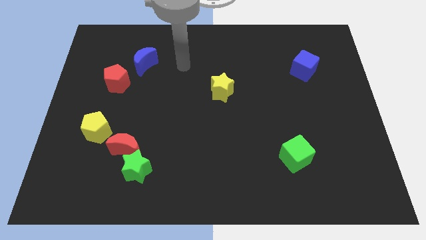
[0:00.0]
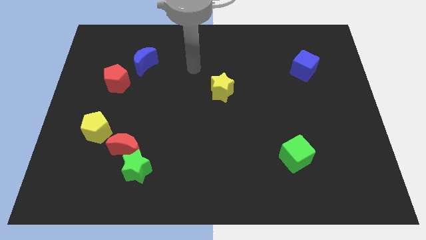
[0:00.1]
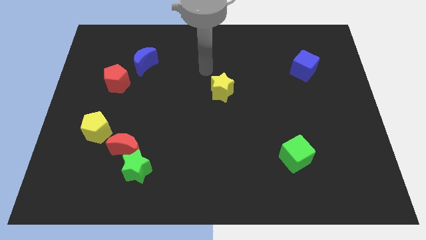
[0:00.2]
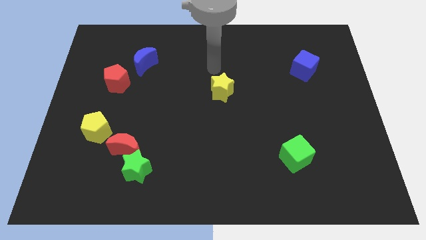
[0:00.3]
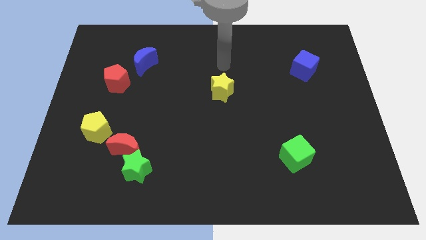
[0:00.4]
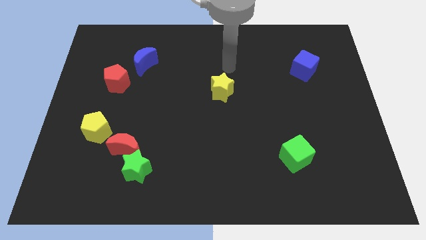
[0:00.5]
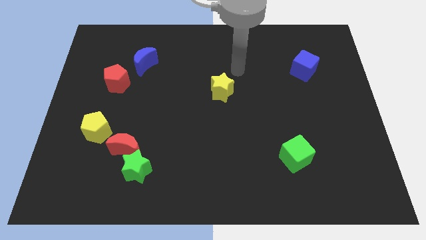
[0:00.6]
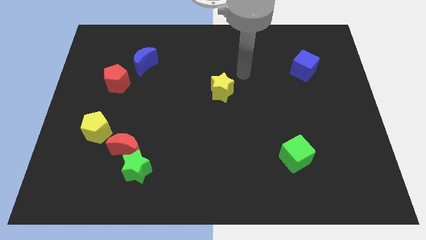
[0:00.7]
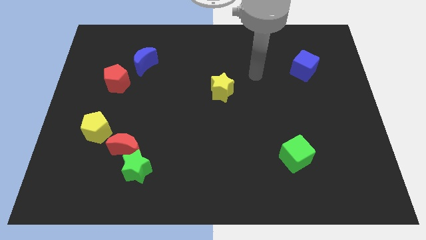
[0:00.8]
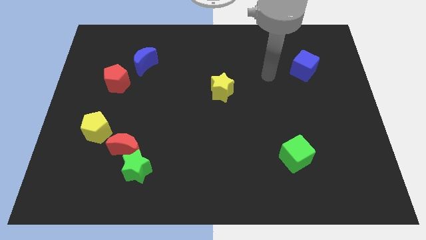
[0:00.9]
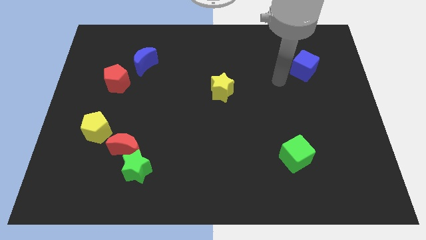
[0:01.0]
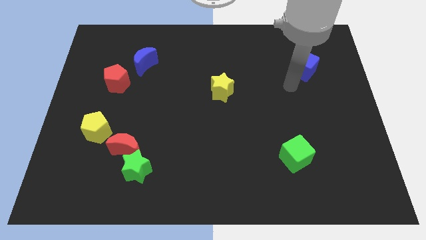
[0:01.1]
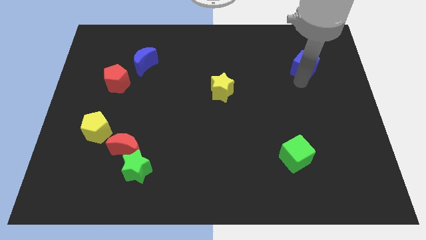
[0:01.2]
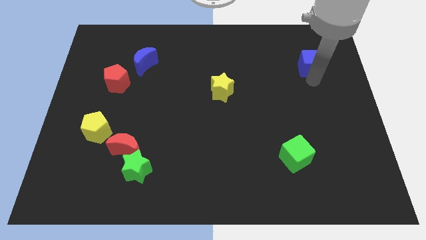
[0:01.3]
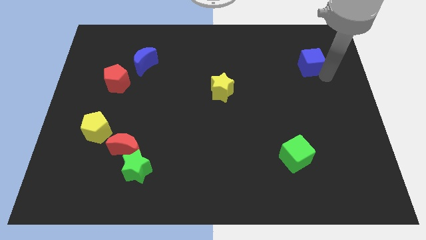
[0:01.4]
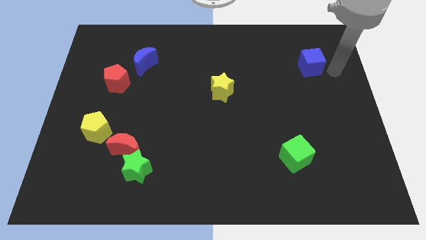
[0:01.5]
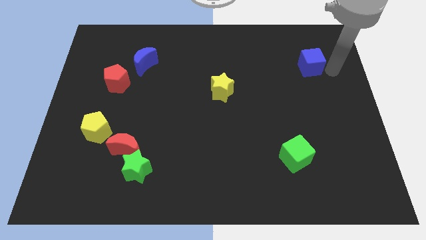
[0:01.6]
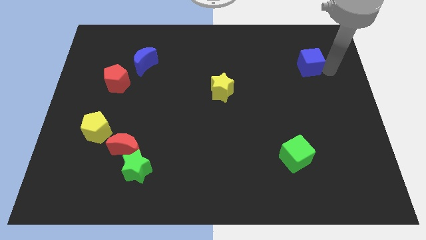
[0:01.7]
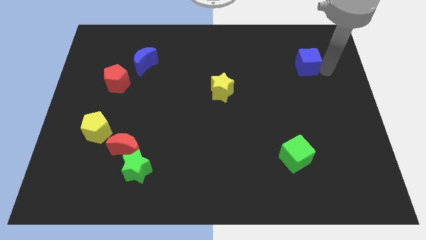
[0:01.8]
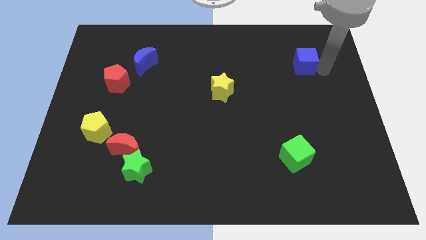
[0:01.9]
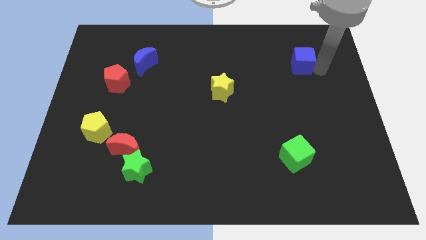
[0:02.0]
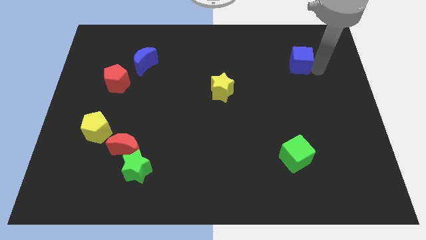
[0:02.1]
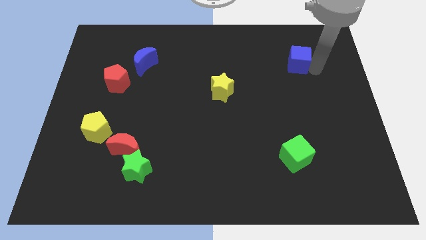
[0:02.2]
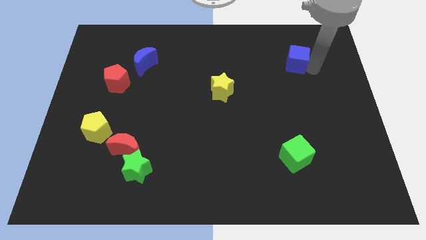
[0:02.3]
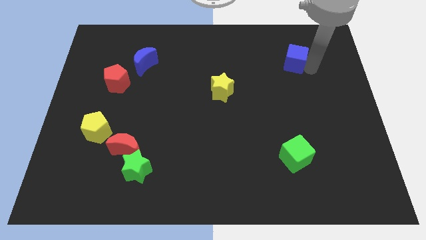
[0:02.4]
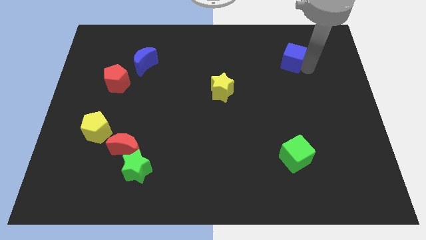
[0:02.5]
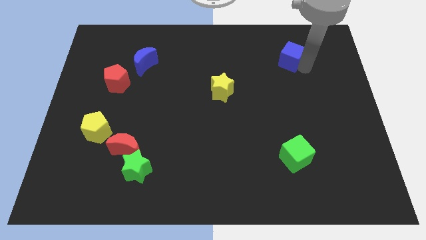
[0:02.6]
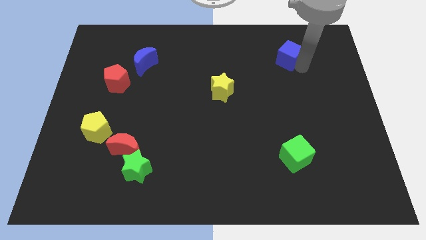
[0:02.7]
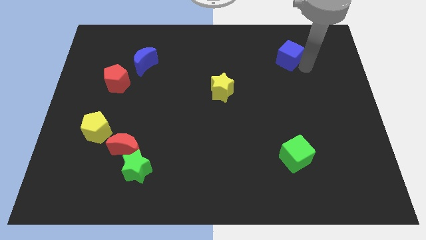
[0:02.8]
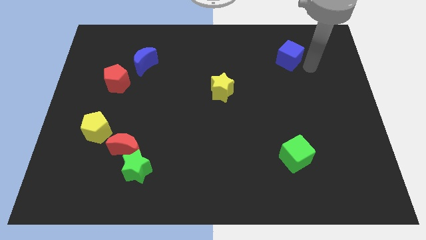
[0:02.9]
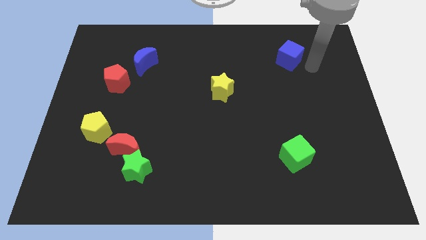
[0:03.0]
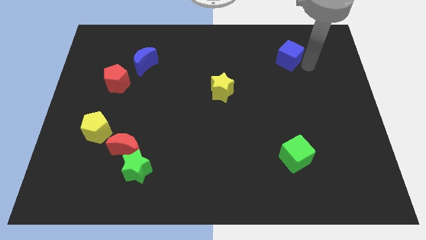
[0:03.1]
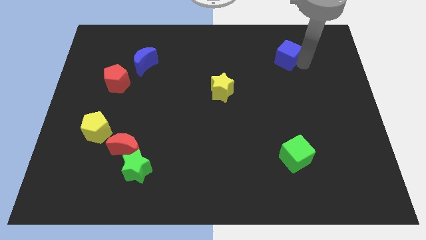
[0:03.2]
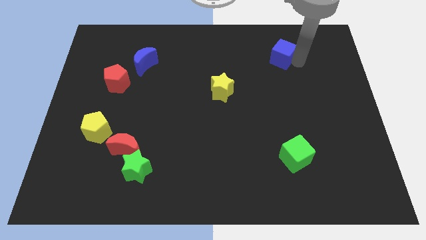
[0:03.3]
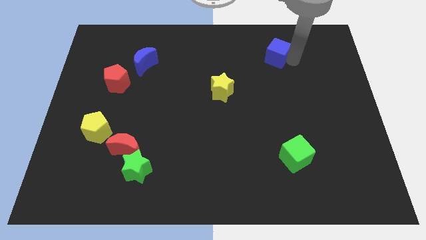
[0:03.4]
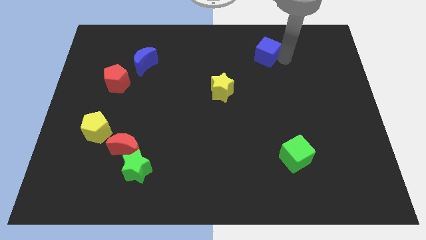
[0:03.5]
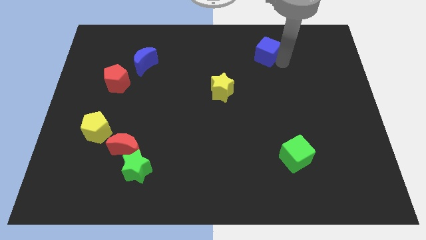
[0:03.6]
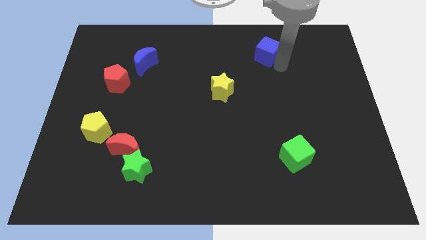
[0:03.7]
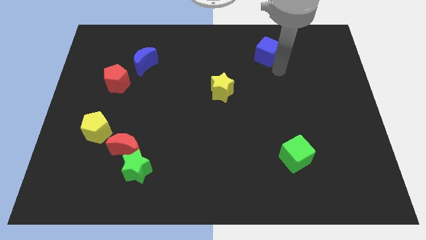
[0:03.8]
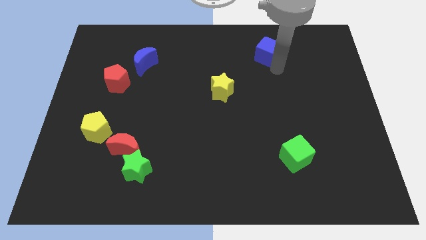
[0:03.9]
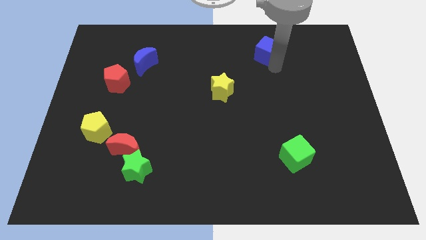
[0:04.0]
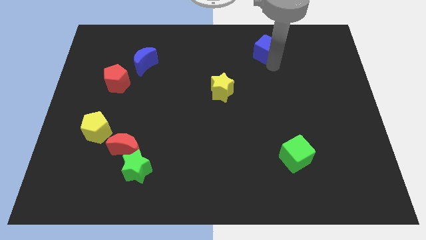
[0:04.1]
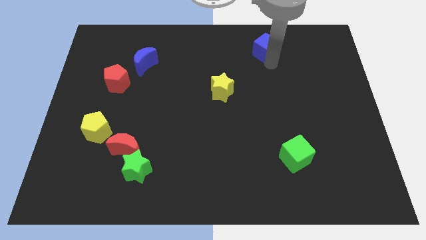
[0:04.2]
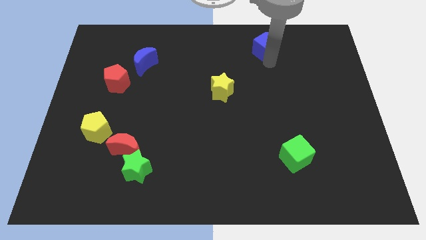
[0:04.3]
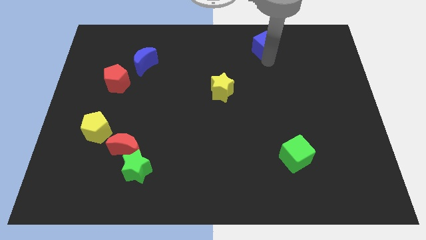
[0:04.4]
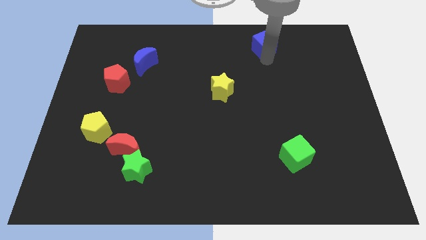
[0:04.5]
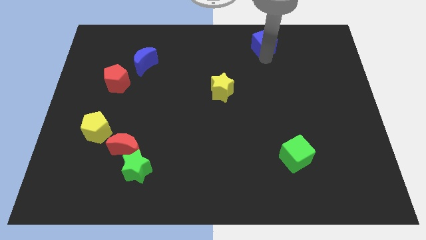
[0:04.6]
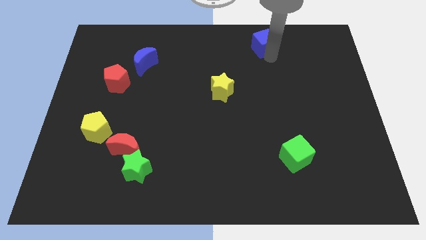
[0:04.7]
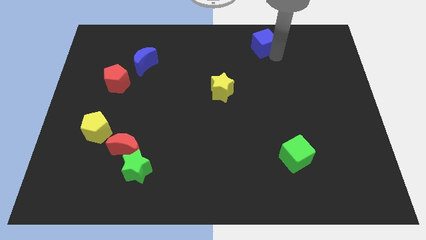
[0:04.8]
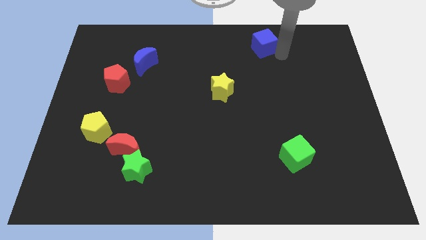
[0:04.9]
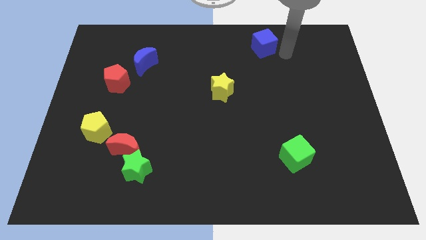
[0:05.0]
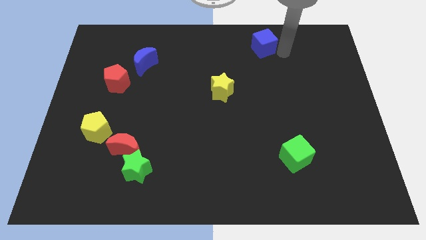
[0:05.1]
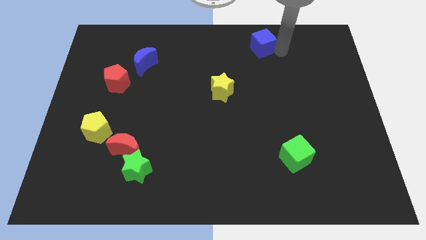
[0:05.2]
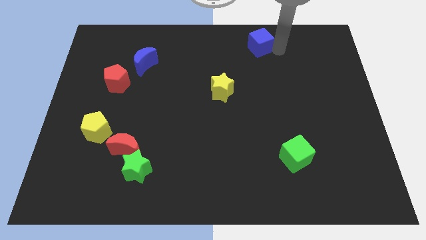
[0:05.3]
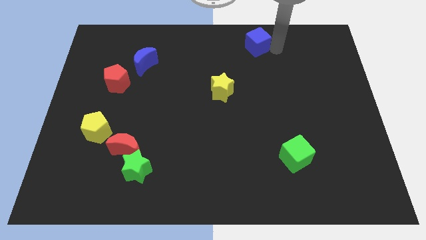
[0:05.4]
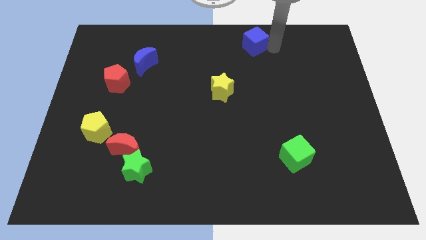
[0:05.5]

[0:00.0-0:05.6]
put the blue cube to the top side

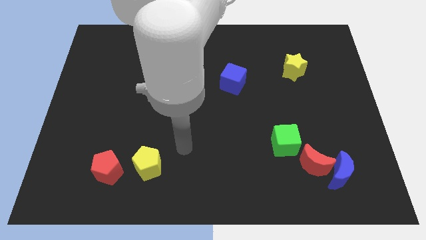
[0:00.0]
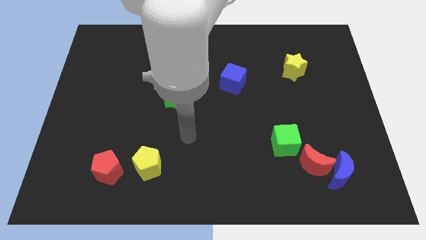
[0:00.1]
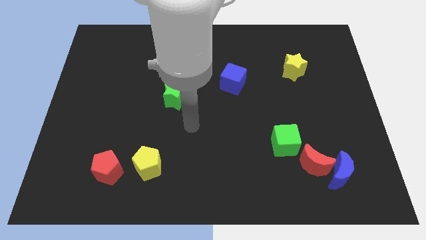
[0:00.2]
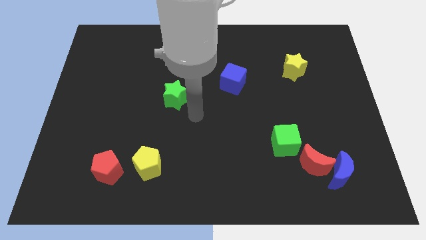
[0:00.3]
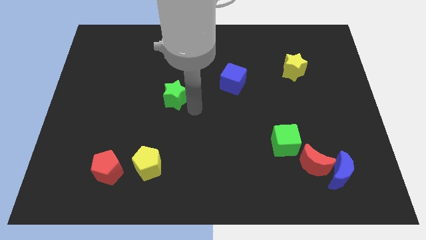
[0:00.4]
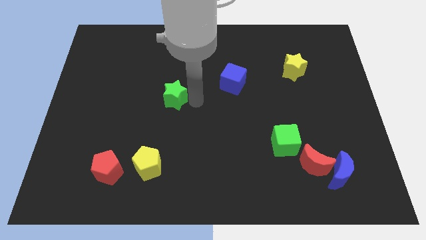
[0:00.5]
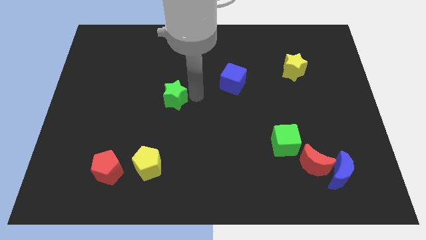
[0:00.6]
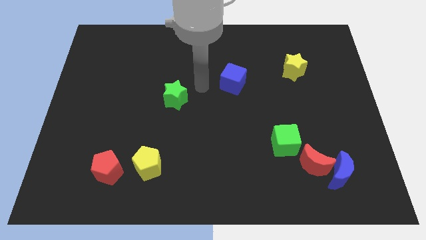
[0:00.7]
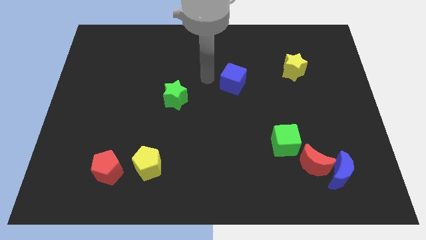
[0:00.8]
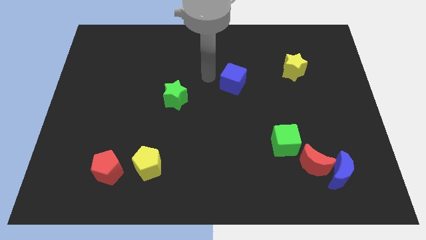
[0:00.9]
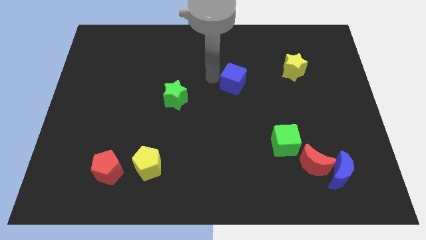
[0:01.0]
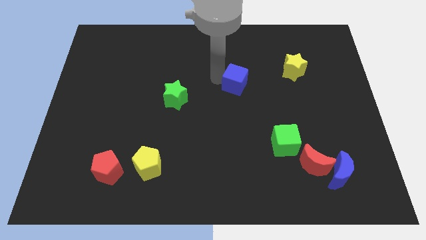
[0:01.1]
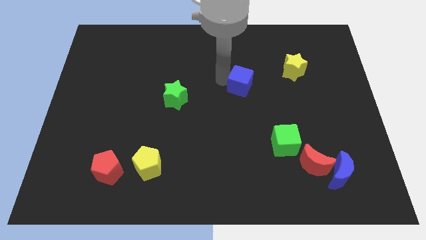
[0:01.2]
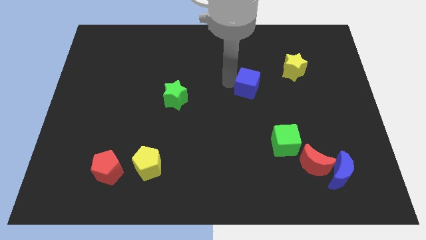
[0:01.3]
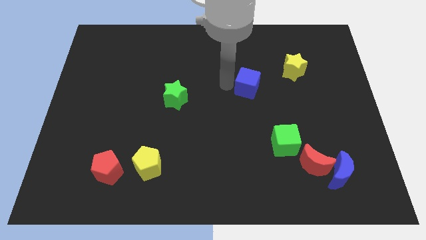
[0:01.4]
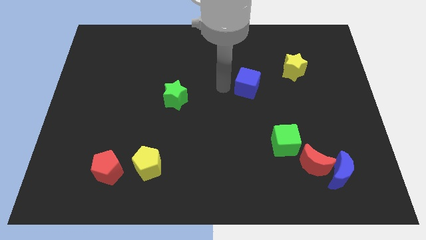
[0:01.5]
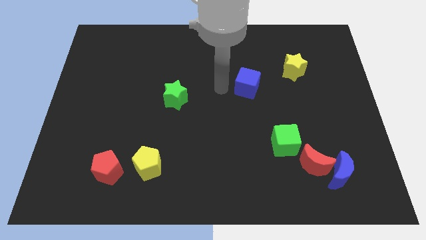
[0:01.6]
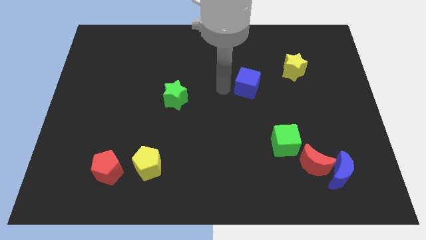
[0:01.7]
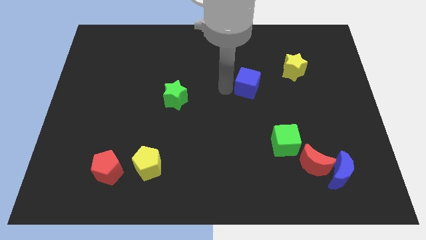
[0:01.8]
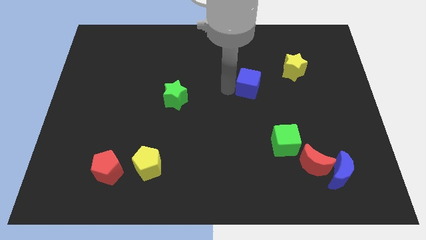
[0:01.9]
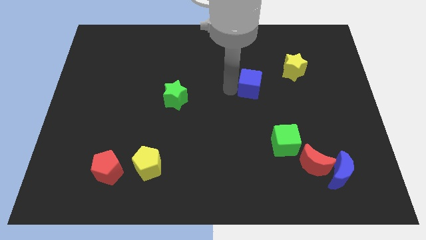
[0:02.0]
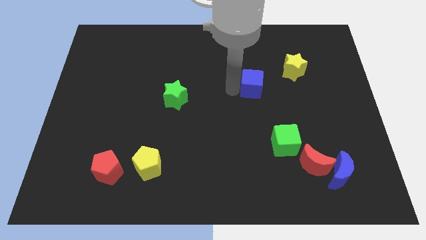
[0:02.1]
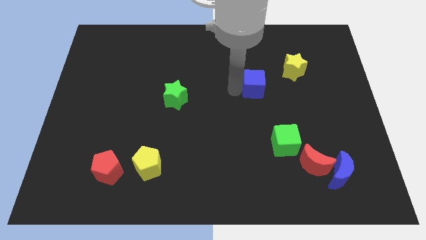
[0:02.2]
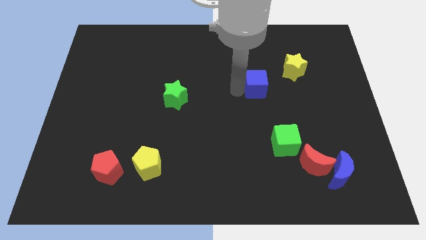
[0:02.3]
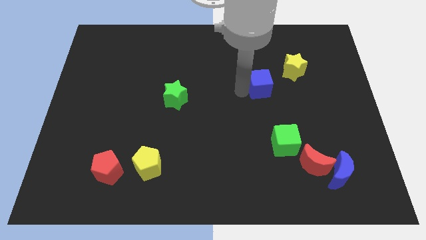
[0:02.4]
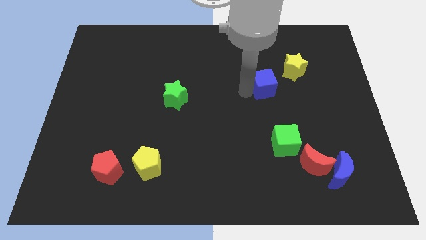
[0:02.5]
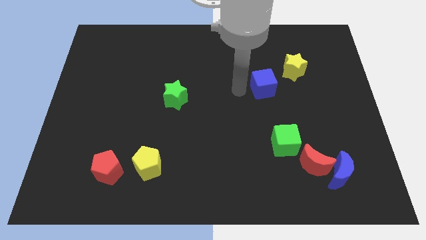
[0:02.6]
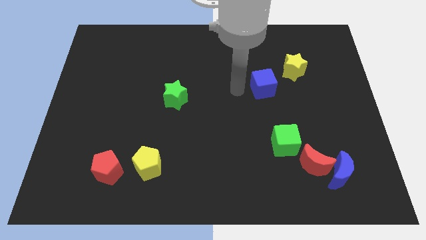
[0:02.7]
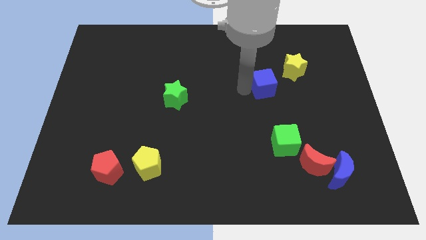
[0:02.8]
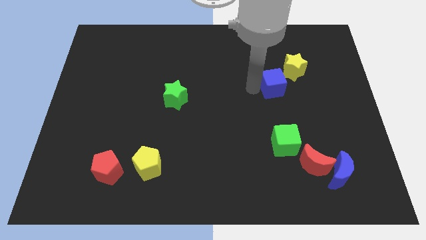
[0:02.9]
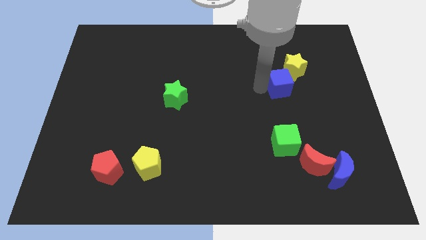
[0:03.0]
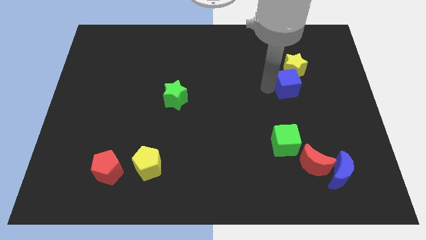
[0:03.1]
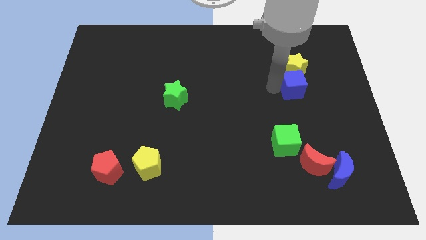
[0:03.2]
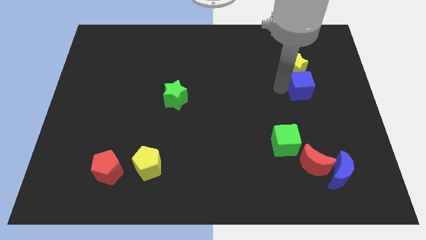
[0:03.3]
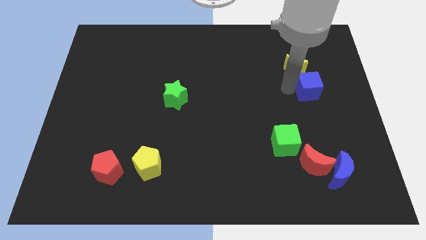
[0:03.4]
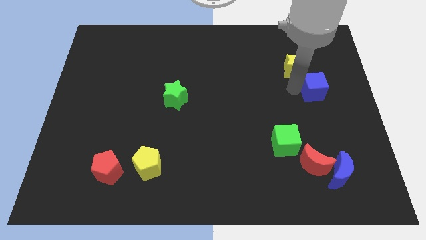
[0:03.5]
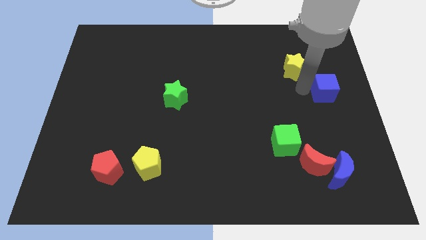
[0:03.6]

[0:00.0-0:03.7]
put the blue cube to the right side
